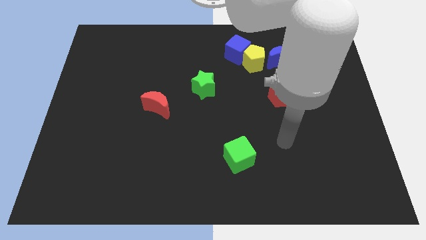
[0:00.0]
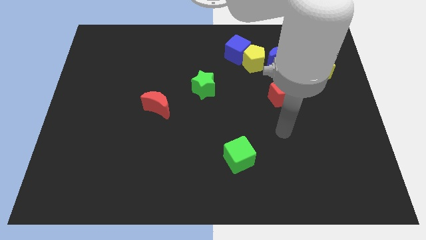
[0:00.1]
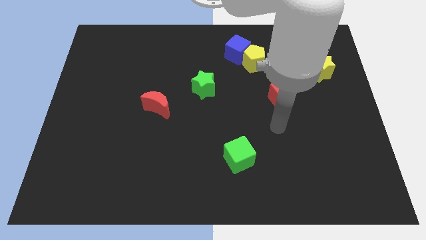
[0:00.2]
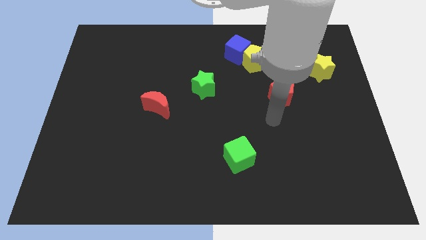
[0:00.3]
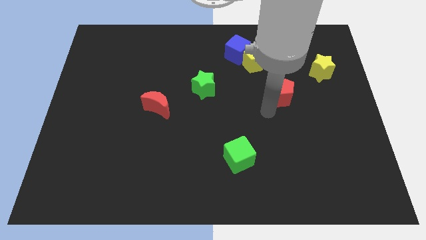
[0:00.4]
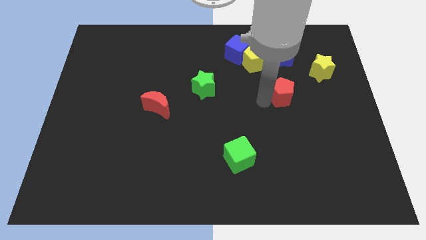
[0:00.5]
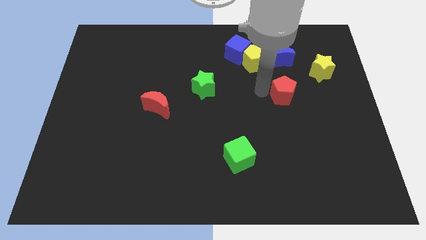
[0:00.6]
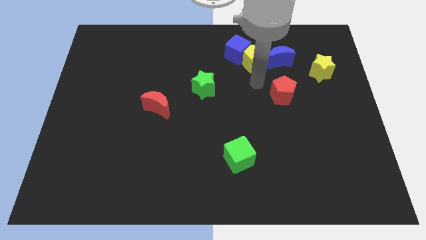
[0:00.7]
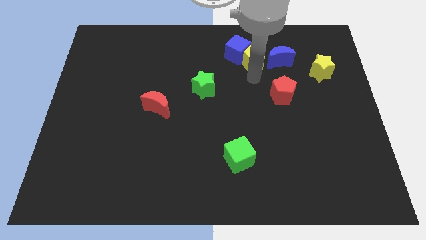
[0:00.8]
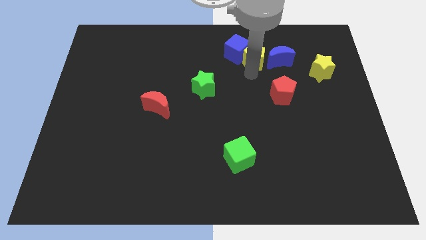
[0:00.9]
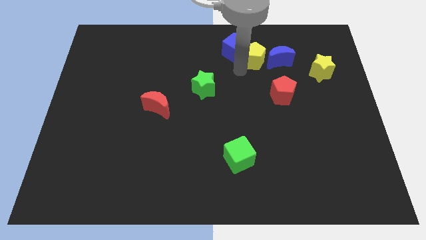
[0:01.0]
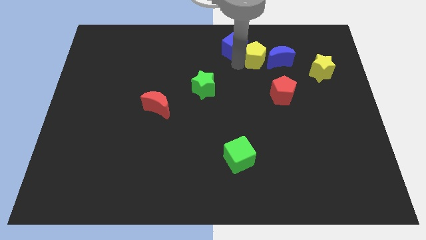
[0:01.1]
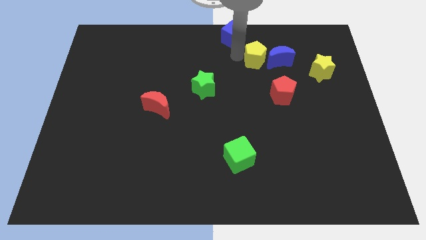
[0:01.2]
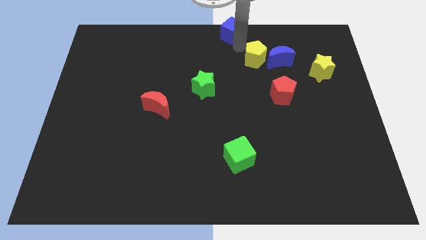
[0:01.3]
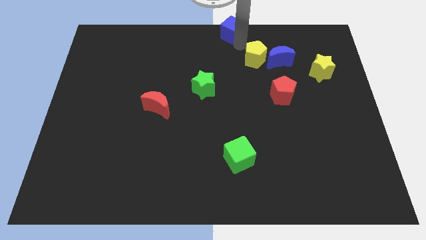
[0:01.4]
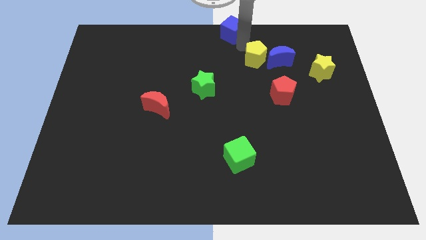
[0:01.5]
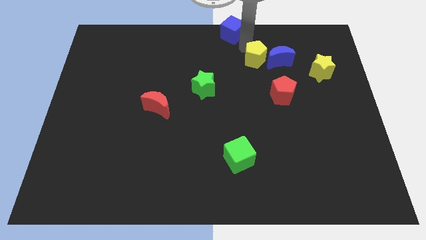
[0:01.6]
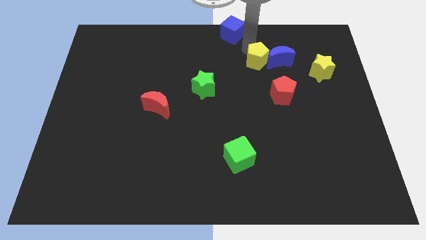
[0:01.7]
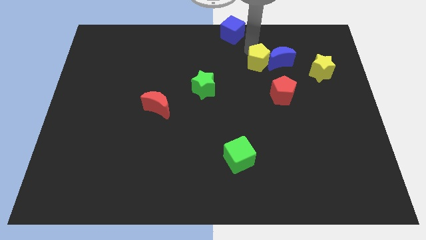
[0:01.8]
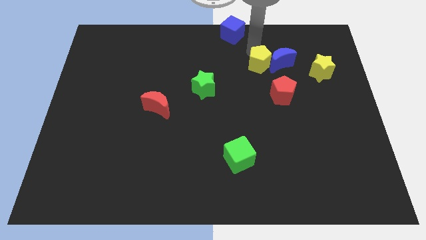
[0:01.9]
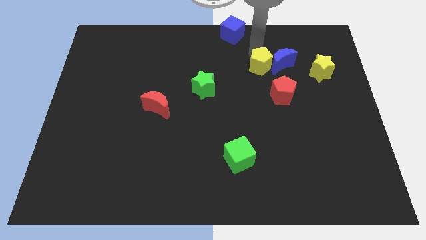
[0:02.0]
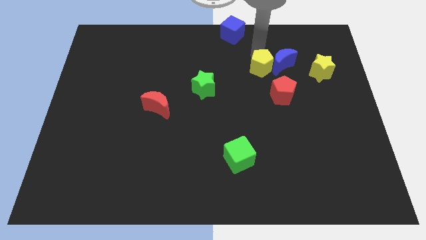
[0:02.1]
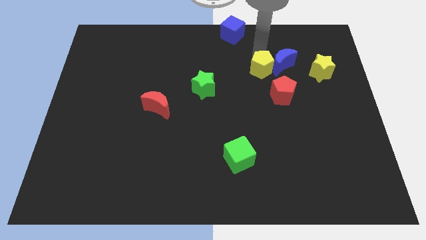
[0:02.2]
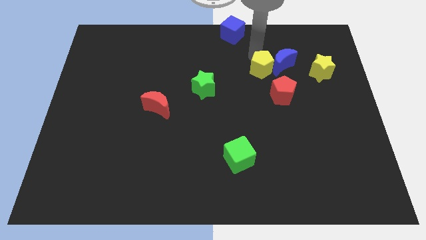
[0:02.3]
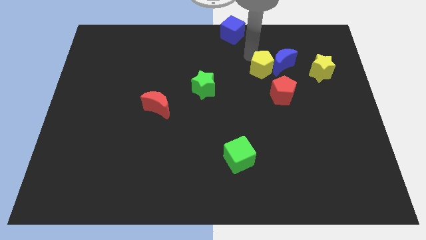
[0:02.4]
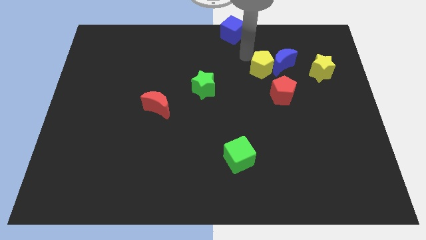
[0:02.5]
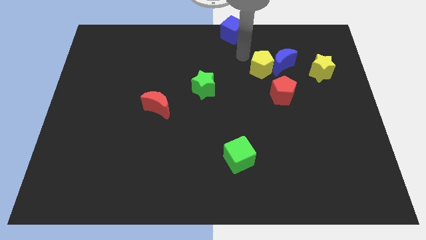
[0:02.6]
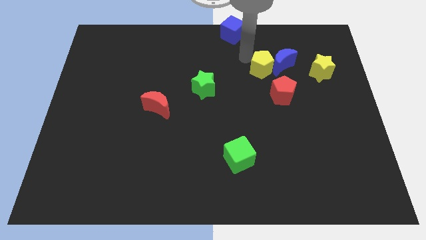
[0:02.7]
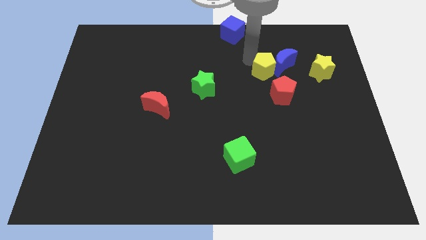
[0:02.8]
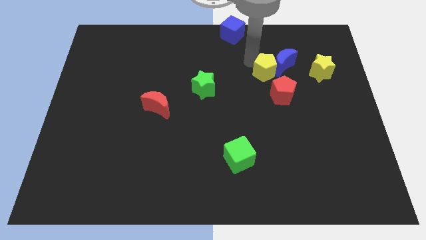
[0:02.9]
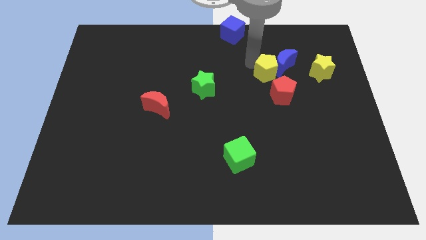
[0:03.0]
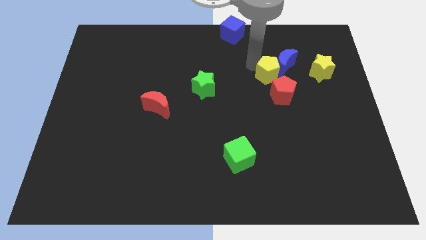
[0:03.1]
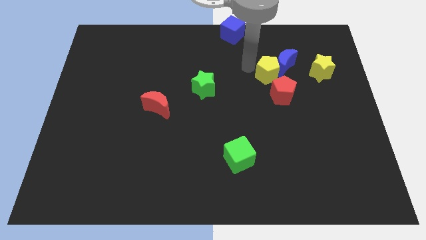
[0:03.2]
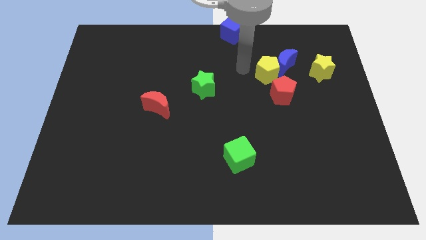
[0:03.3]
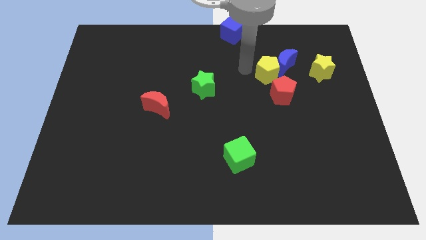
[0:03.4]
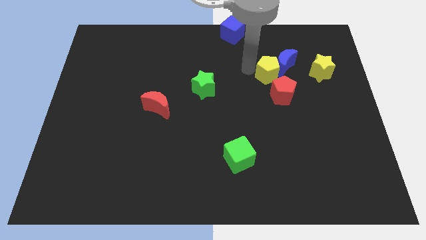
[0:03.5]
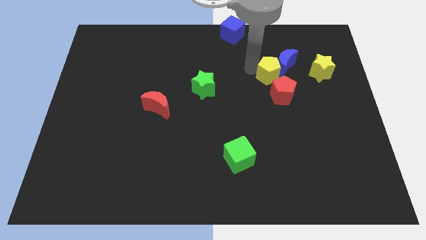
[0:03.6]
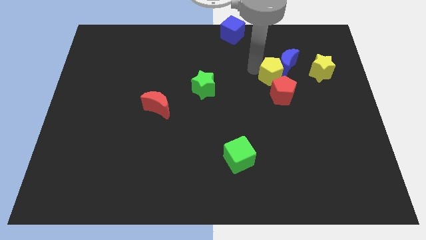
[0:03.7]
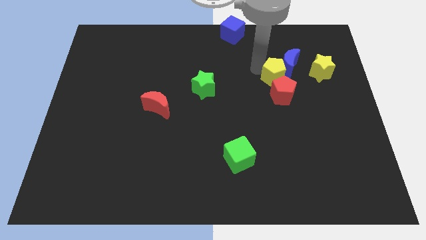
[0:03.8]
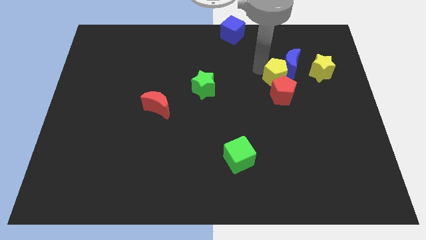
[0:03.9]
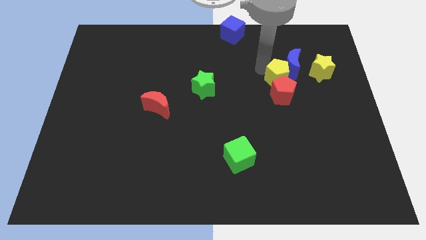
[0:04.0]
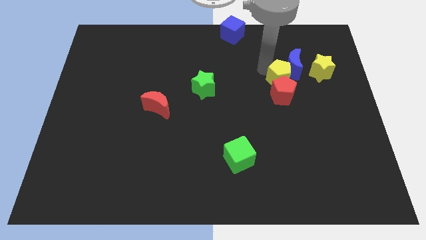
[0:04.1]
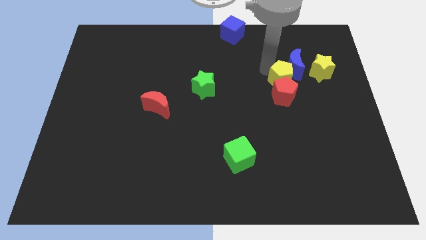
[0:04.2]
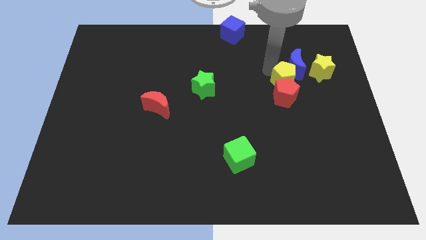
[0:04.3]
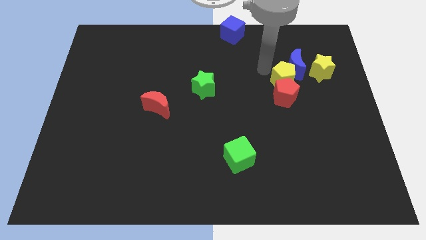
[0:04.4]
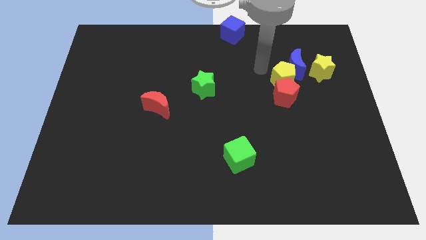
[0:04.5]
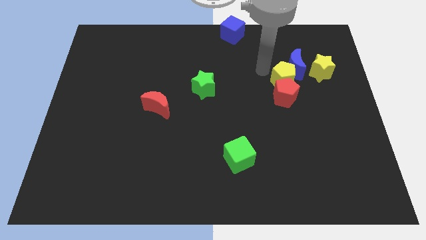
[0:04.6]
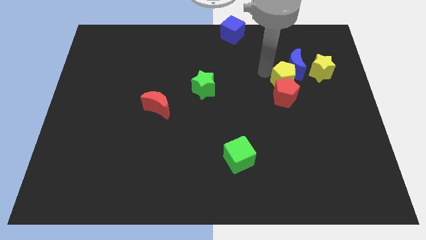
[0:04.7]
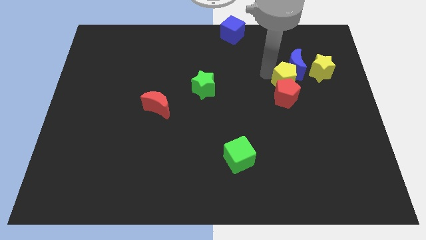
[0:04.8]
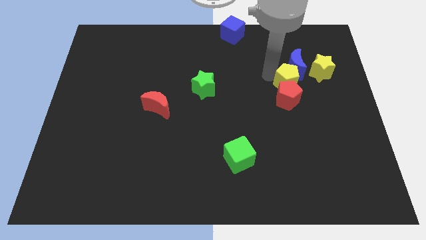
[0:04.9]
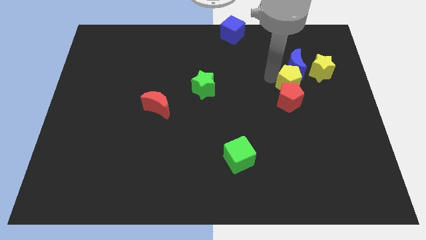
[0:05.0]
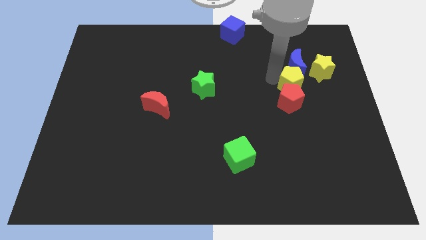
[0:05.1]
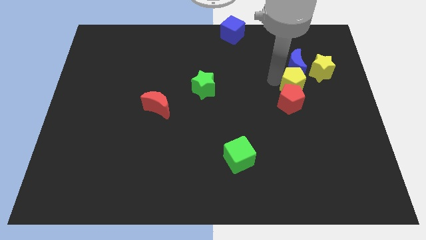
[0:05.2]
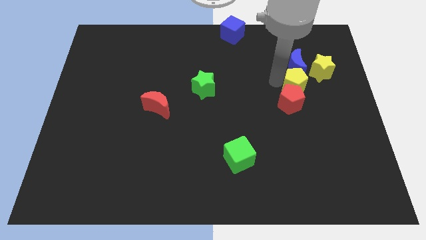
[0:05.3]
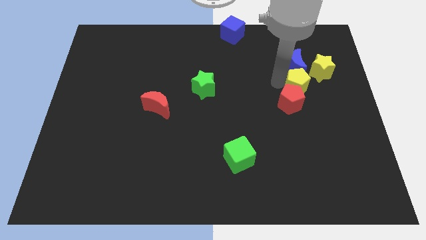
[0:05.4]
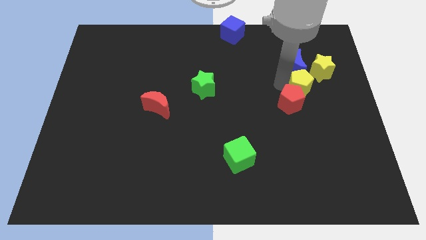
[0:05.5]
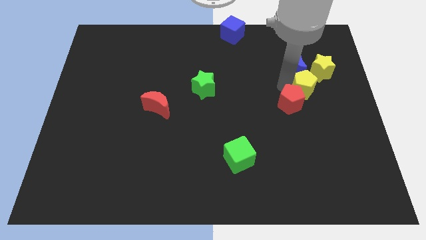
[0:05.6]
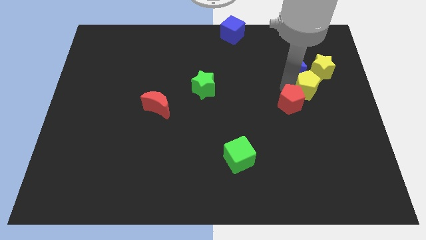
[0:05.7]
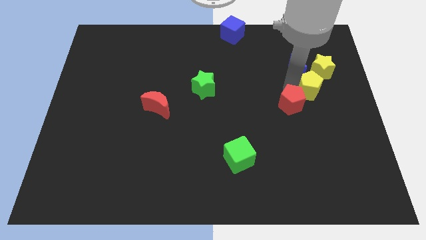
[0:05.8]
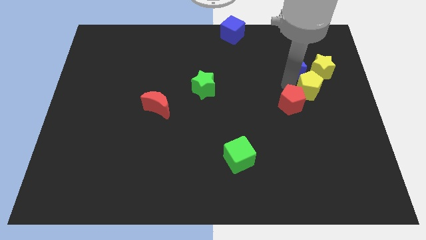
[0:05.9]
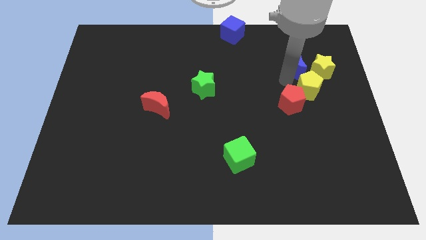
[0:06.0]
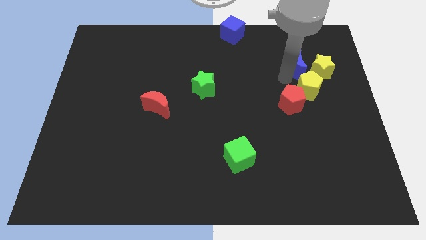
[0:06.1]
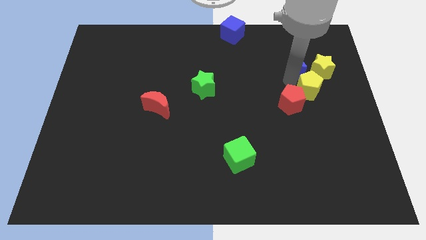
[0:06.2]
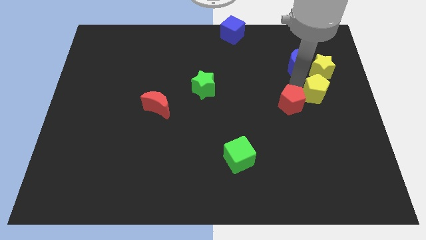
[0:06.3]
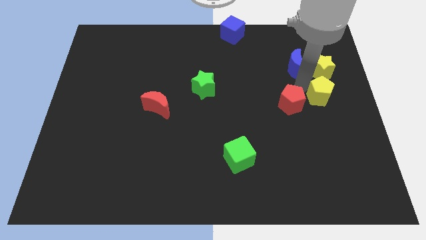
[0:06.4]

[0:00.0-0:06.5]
slide the yellow pentagon to the center right
